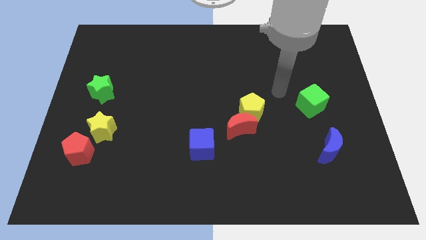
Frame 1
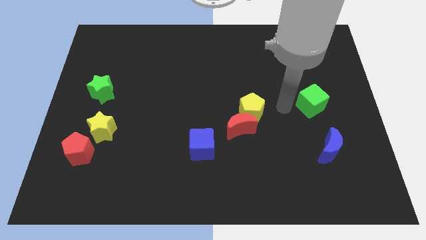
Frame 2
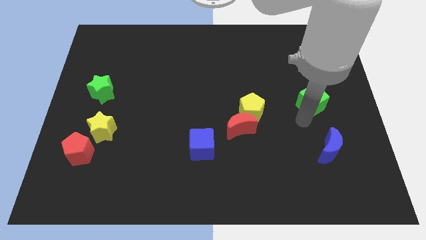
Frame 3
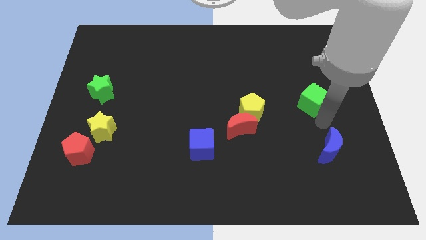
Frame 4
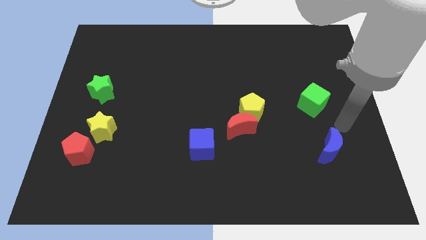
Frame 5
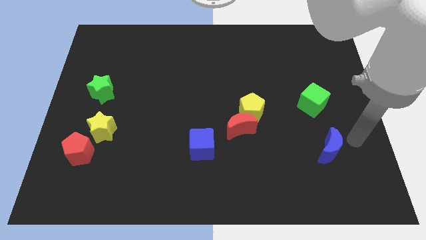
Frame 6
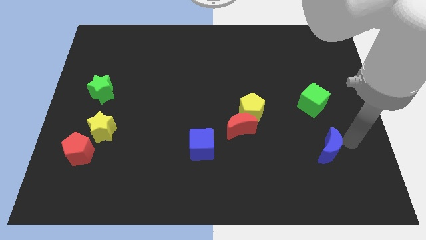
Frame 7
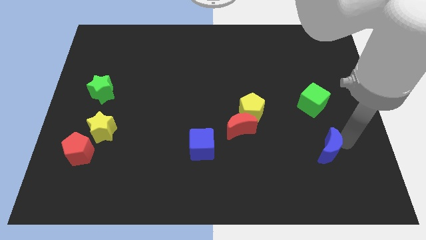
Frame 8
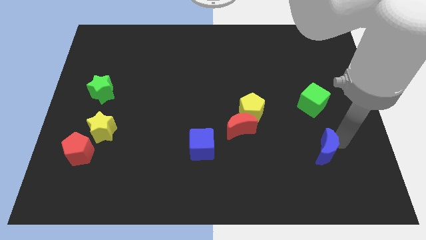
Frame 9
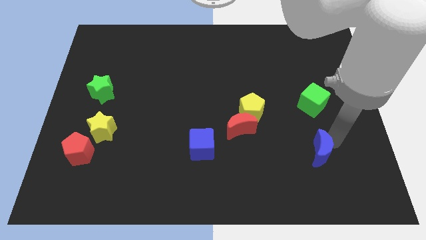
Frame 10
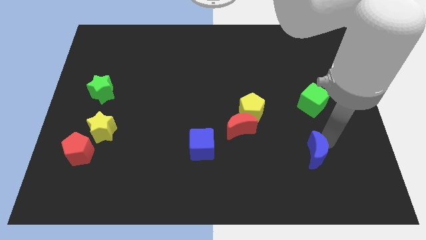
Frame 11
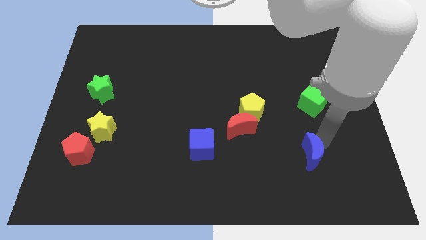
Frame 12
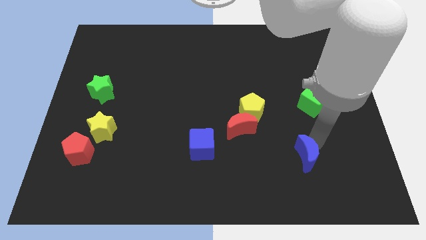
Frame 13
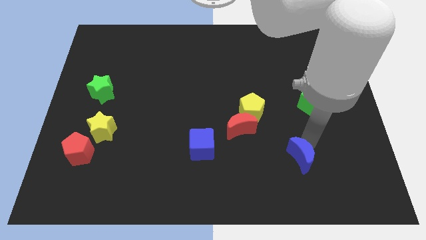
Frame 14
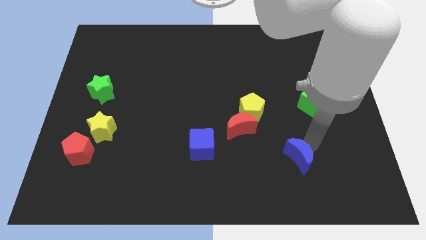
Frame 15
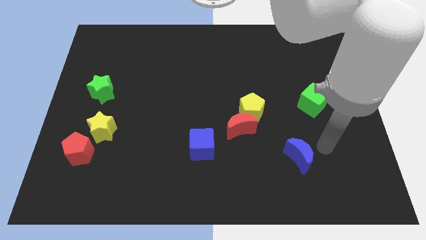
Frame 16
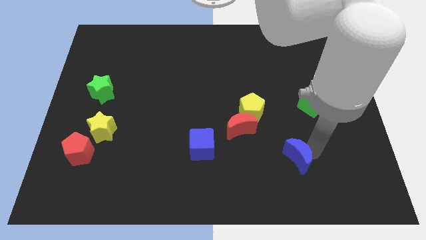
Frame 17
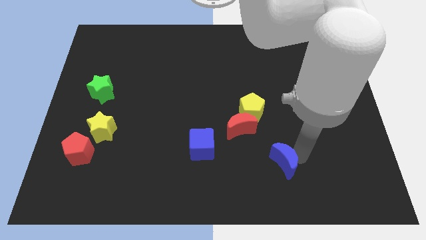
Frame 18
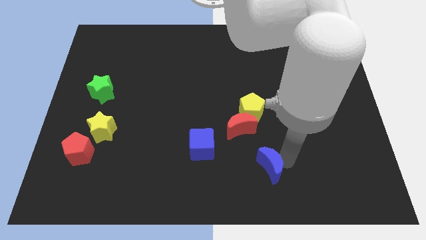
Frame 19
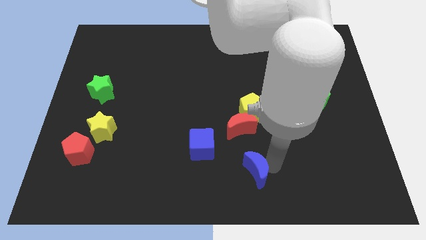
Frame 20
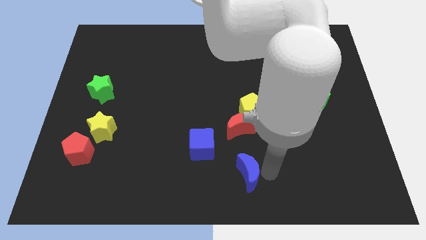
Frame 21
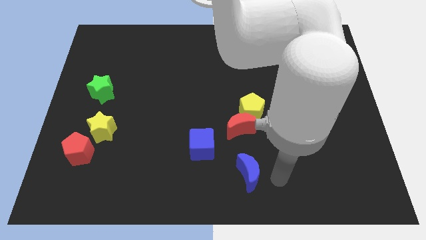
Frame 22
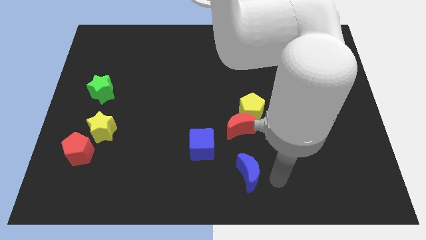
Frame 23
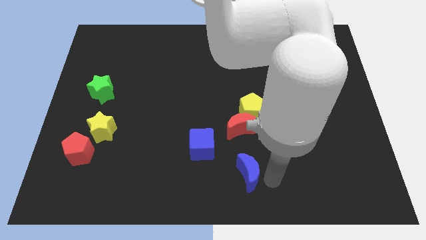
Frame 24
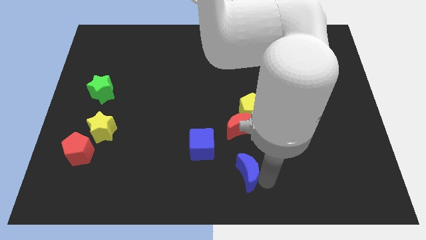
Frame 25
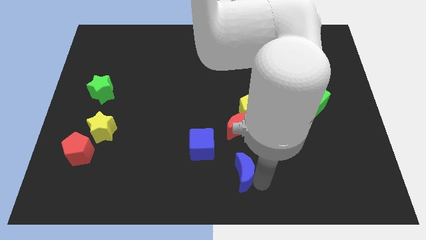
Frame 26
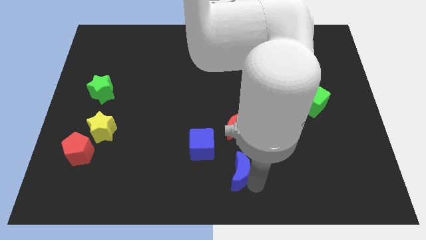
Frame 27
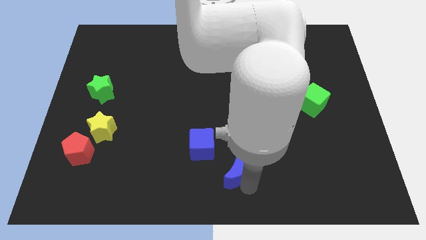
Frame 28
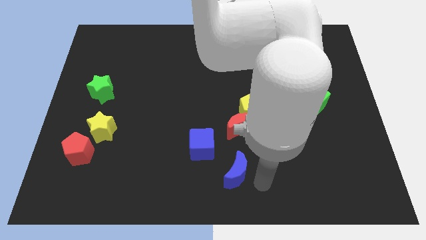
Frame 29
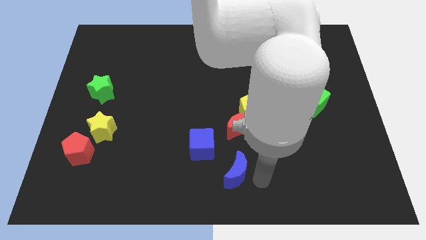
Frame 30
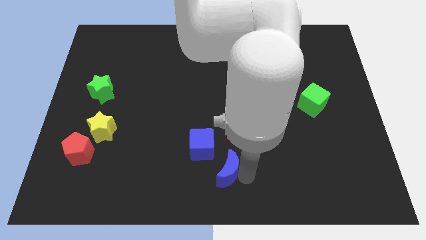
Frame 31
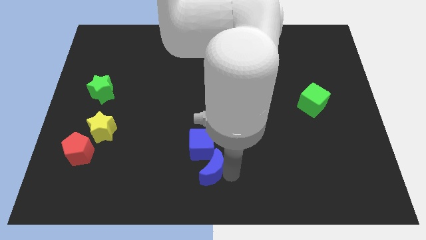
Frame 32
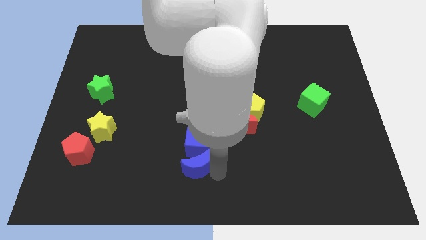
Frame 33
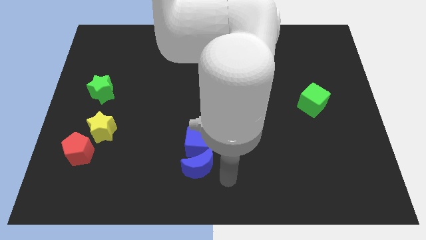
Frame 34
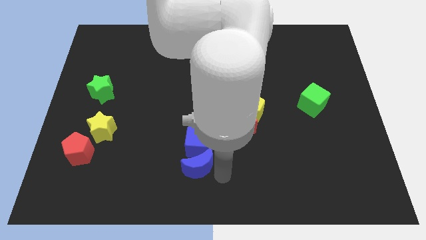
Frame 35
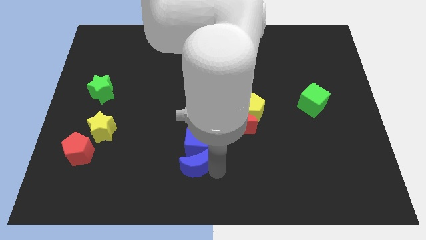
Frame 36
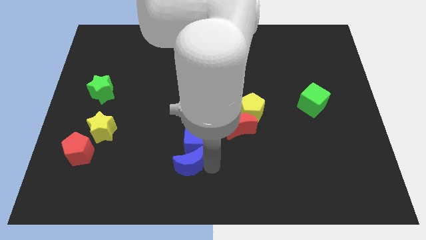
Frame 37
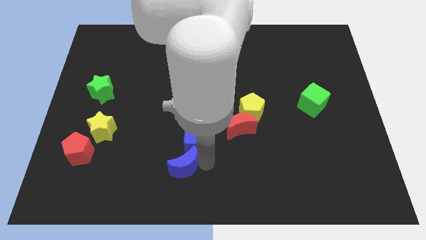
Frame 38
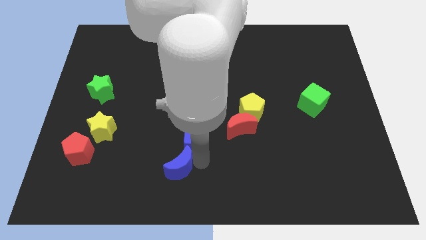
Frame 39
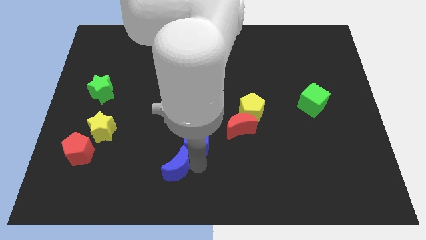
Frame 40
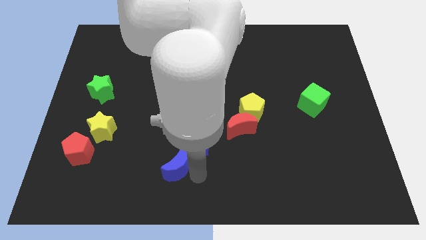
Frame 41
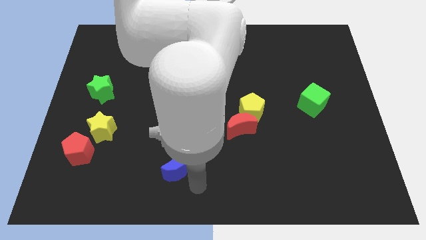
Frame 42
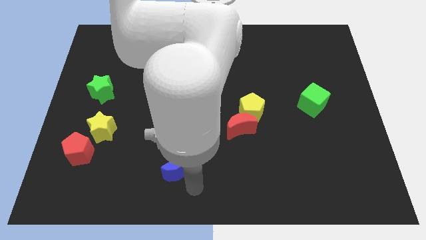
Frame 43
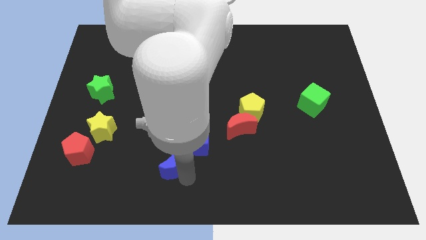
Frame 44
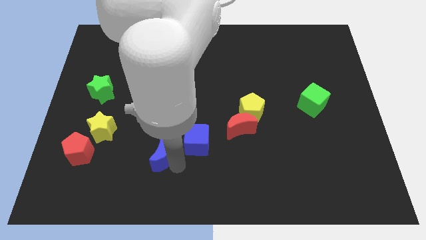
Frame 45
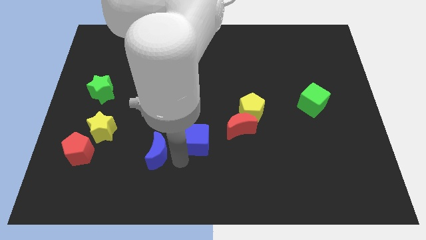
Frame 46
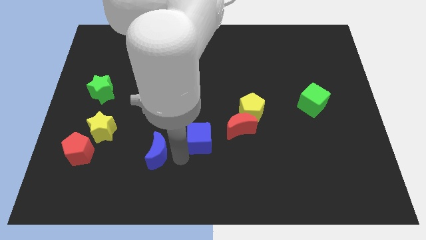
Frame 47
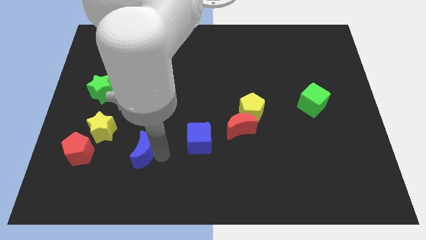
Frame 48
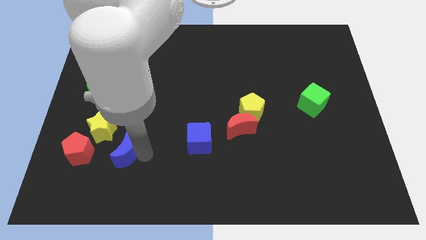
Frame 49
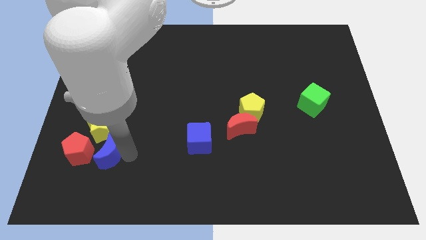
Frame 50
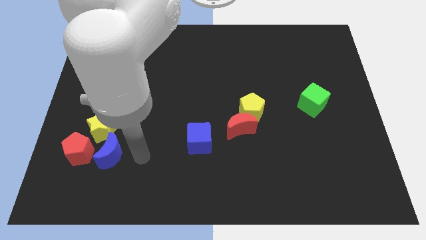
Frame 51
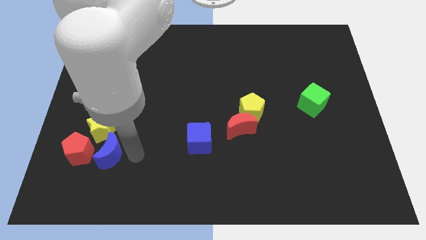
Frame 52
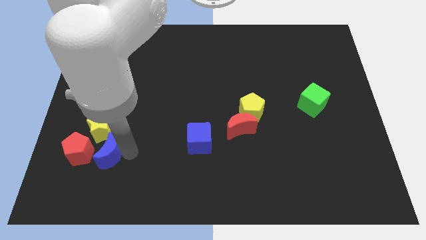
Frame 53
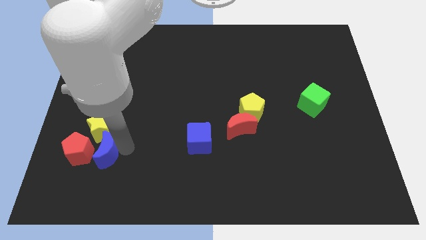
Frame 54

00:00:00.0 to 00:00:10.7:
slide the blue moon to the red pentagon

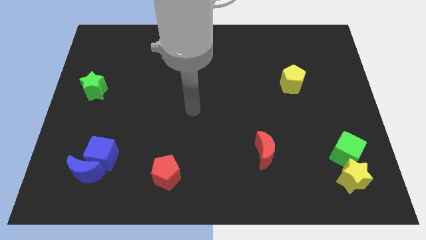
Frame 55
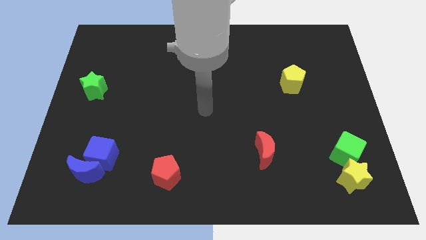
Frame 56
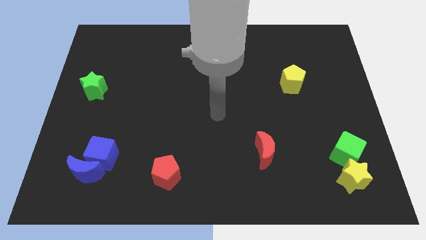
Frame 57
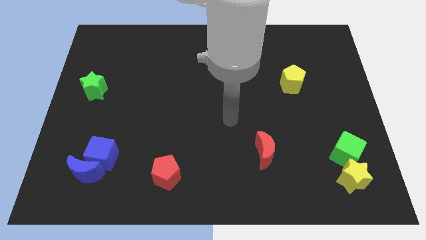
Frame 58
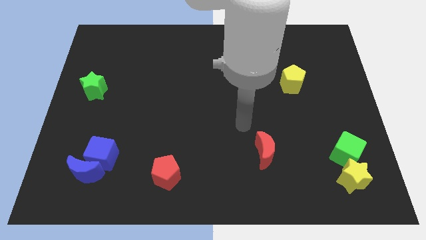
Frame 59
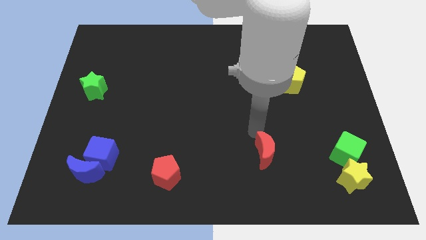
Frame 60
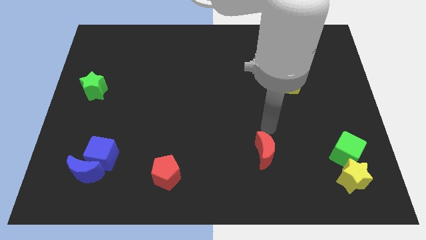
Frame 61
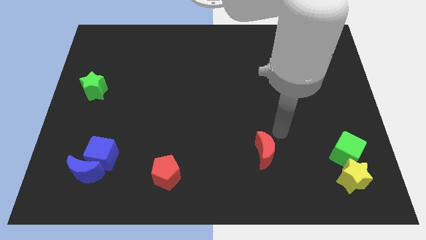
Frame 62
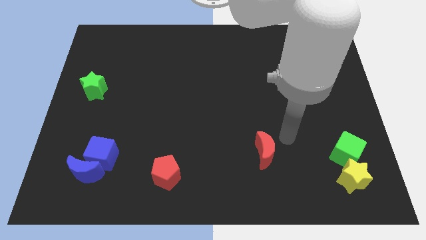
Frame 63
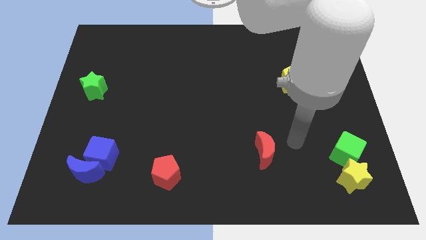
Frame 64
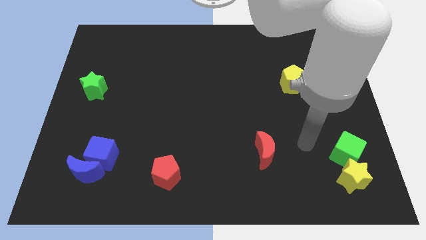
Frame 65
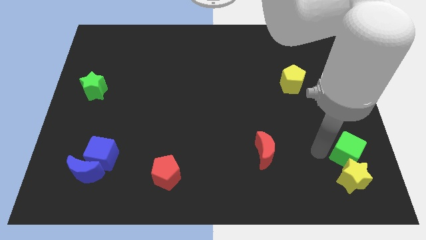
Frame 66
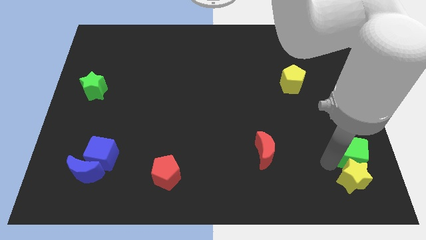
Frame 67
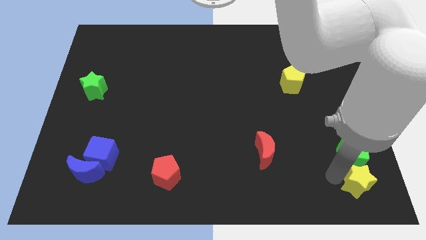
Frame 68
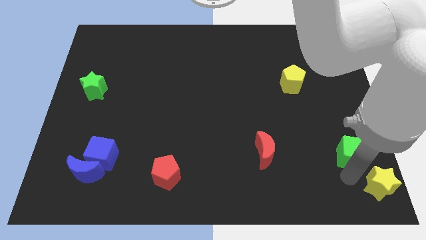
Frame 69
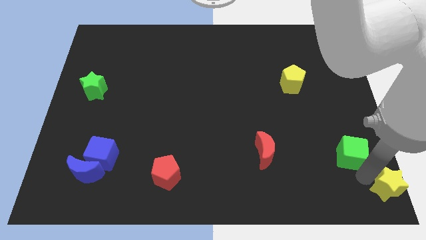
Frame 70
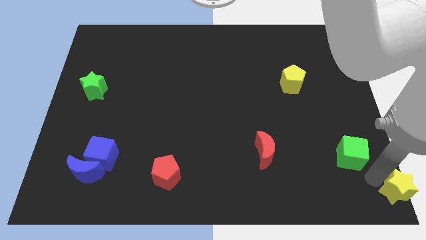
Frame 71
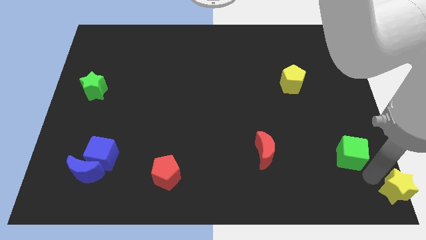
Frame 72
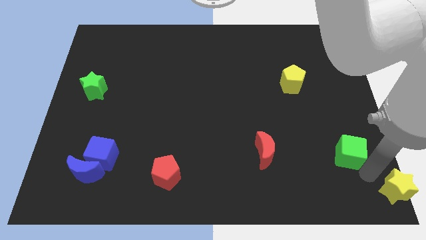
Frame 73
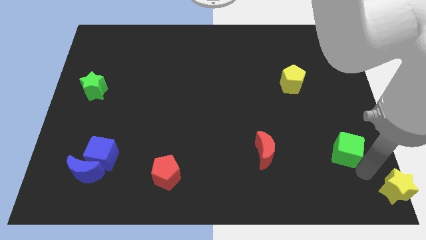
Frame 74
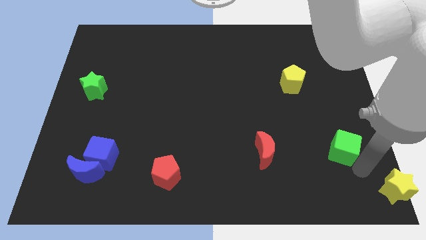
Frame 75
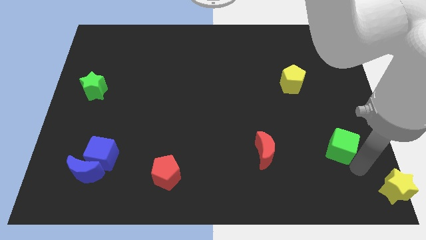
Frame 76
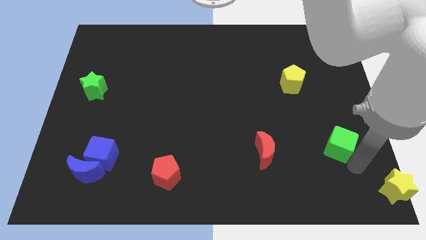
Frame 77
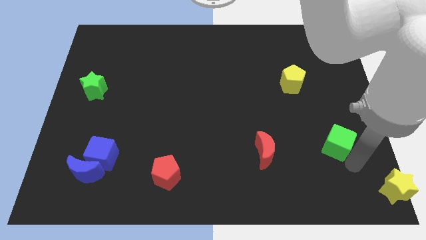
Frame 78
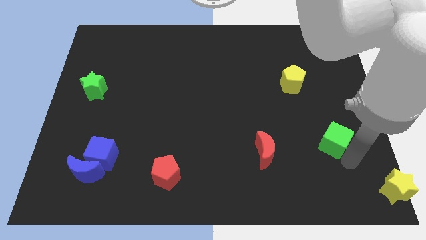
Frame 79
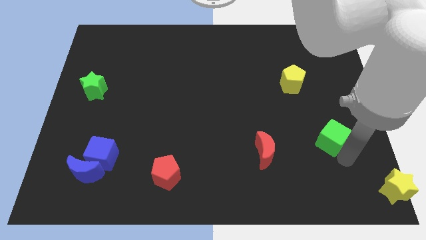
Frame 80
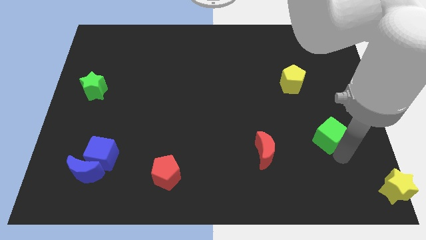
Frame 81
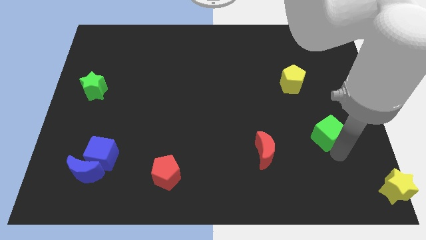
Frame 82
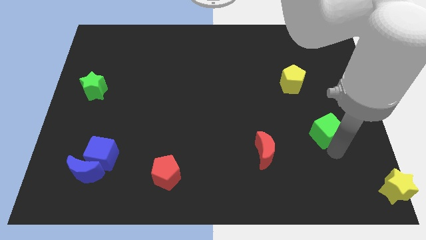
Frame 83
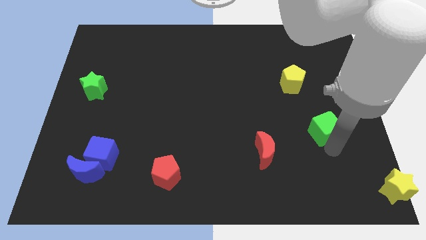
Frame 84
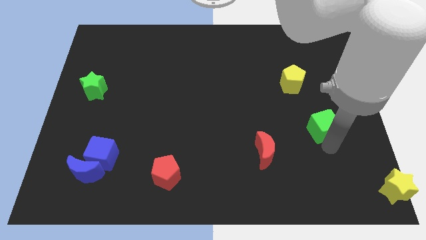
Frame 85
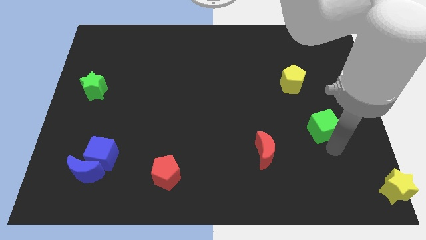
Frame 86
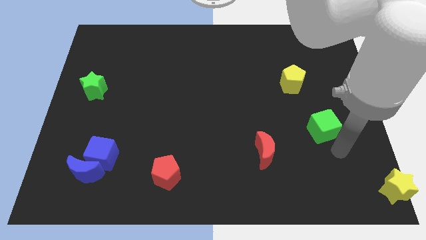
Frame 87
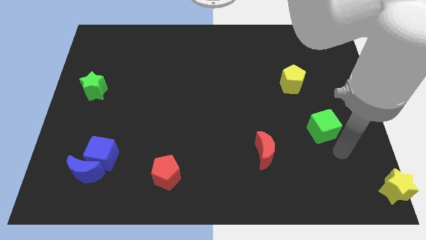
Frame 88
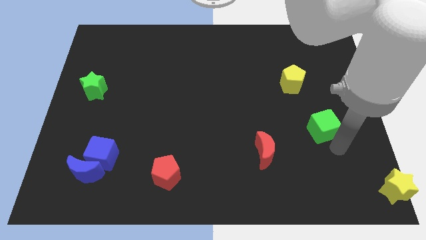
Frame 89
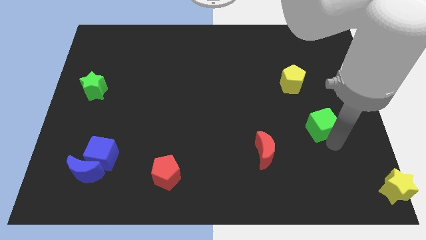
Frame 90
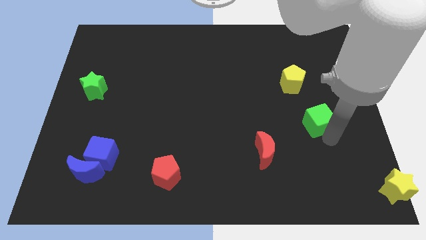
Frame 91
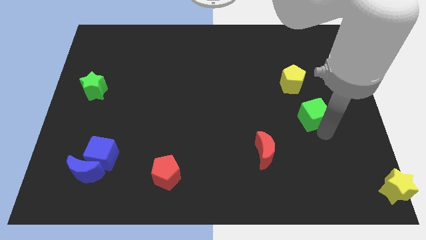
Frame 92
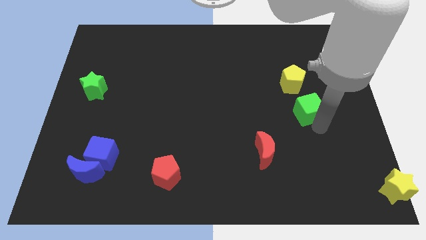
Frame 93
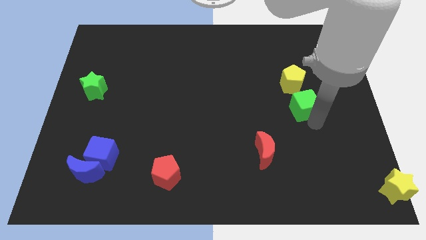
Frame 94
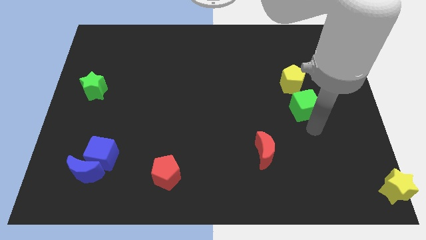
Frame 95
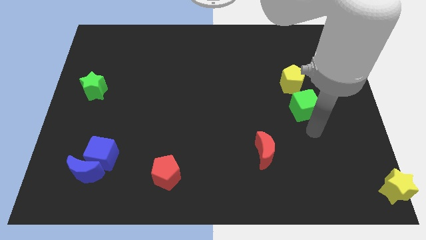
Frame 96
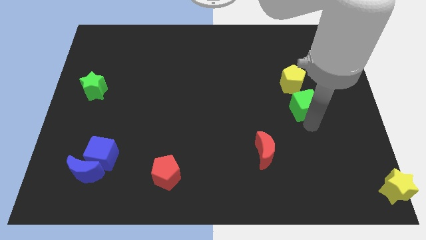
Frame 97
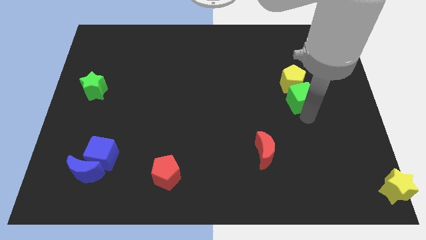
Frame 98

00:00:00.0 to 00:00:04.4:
slide the green cube next to the yellow pentagon
